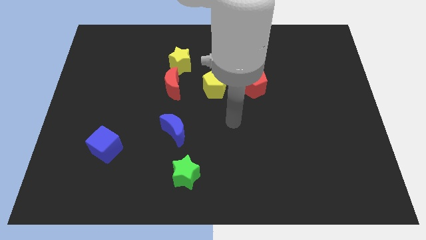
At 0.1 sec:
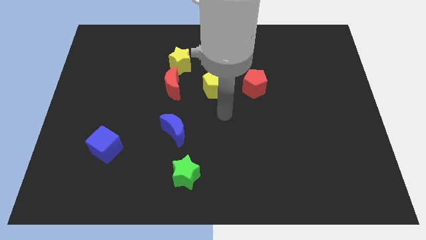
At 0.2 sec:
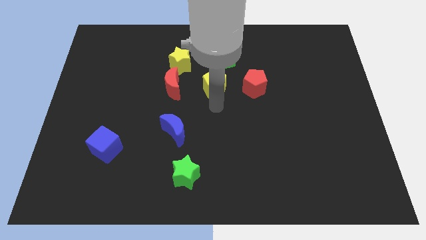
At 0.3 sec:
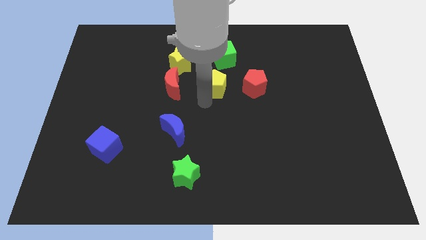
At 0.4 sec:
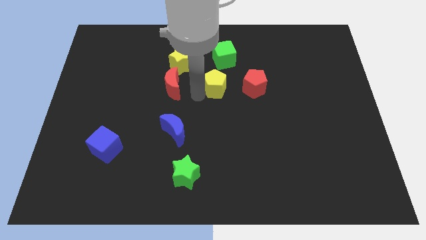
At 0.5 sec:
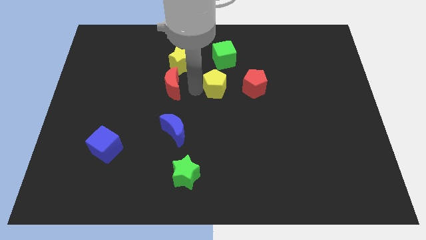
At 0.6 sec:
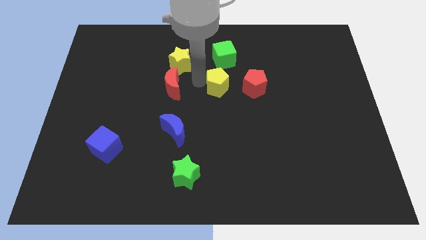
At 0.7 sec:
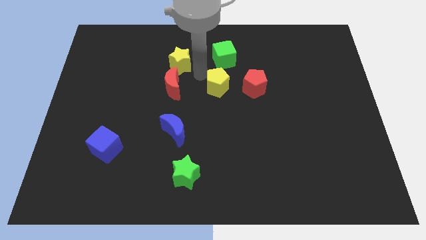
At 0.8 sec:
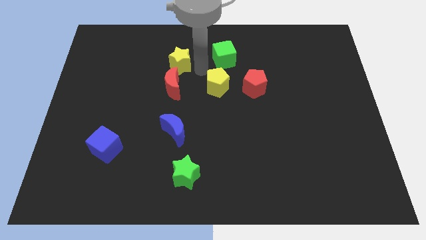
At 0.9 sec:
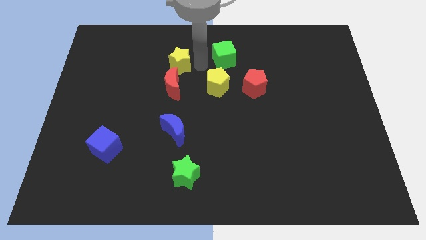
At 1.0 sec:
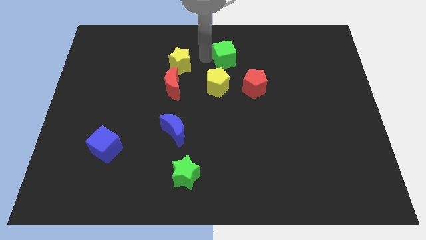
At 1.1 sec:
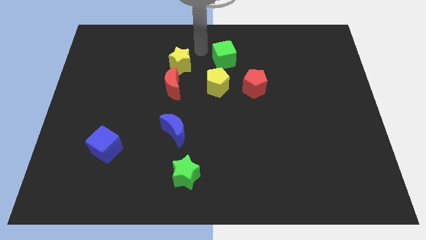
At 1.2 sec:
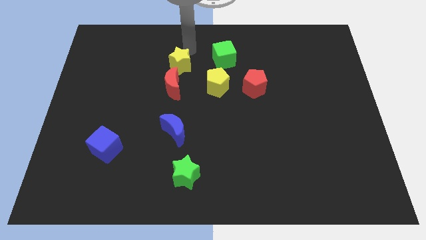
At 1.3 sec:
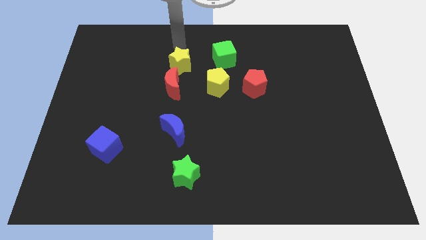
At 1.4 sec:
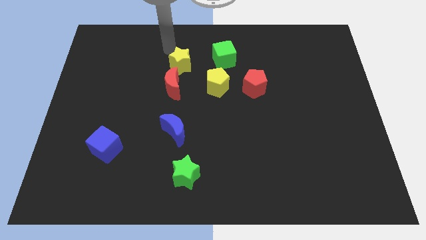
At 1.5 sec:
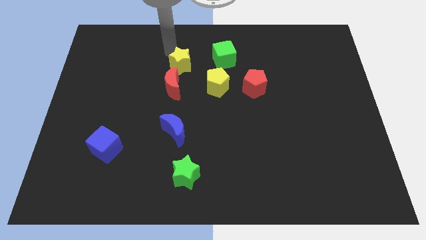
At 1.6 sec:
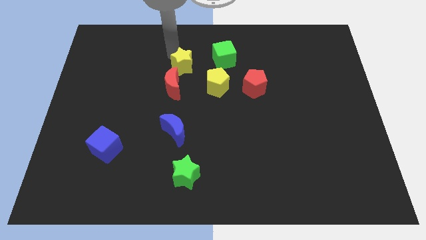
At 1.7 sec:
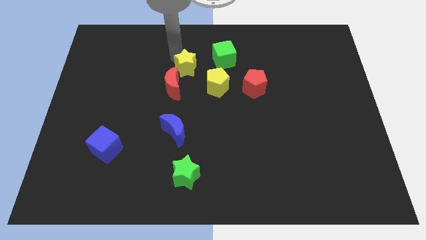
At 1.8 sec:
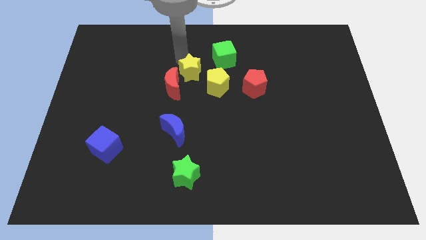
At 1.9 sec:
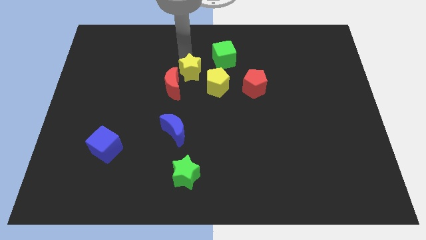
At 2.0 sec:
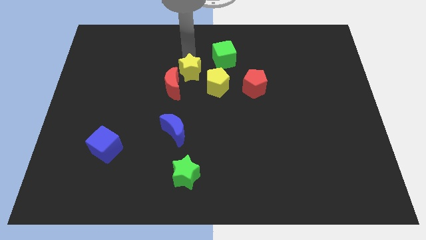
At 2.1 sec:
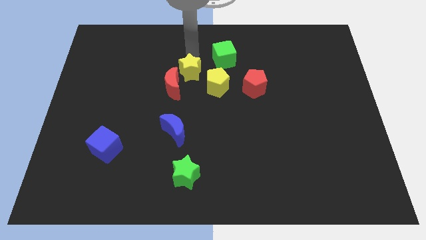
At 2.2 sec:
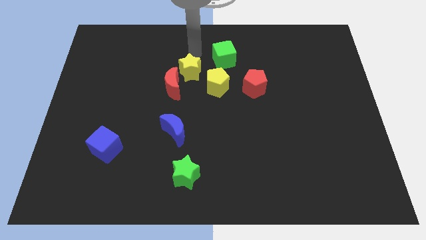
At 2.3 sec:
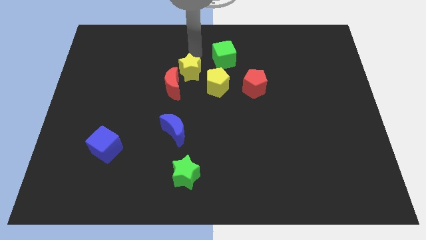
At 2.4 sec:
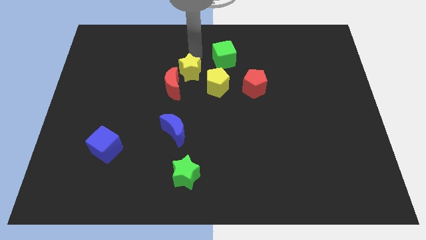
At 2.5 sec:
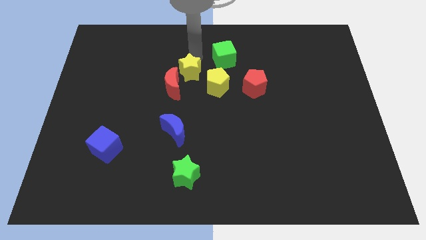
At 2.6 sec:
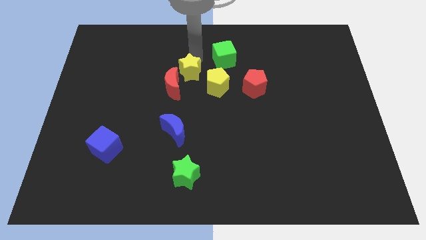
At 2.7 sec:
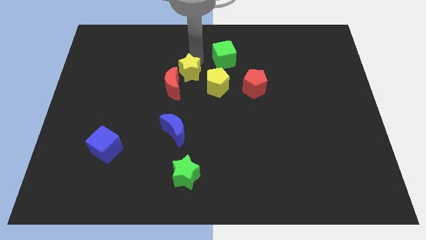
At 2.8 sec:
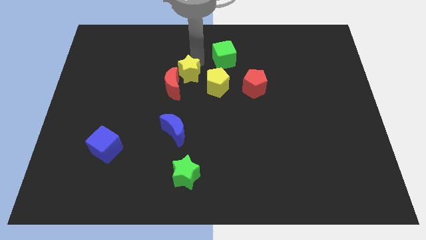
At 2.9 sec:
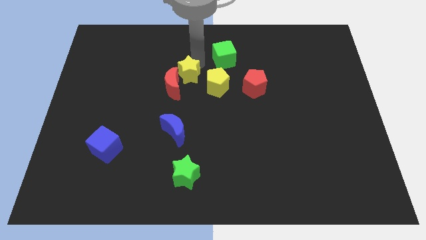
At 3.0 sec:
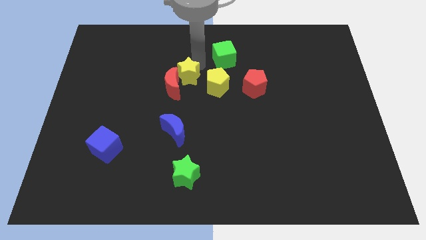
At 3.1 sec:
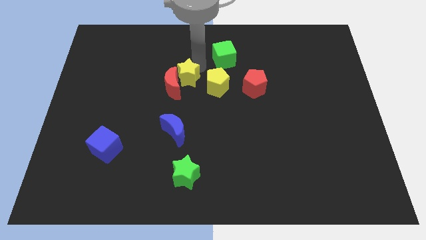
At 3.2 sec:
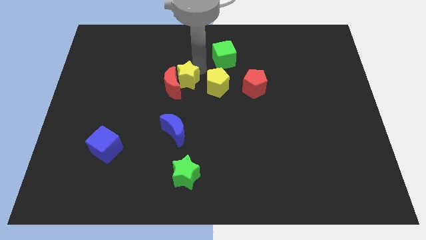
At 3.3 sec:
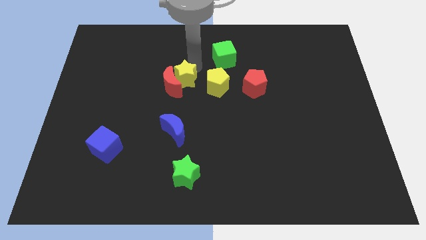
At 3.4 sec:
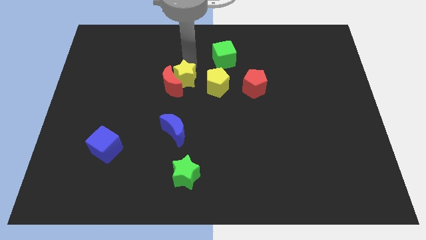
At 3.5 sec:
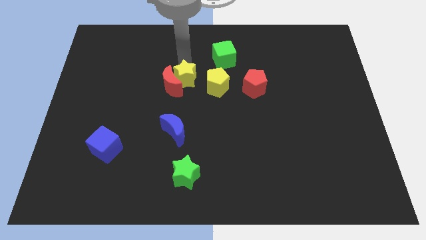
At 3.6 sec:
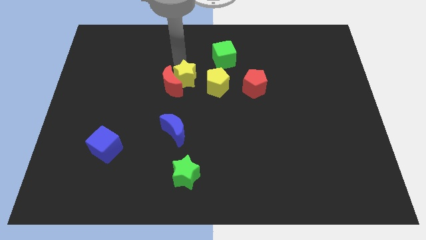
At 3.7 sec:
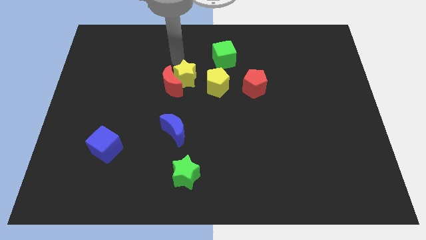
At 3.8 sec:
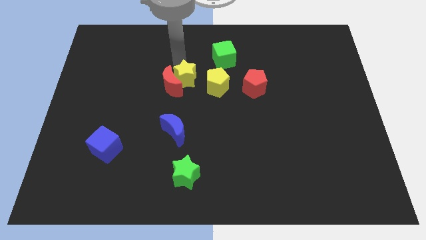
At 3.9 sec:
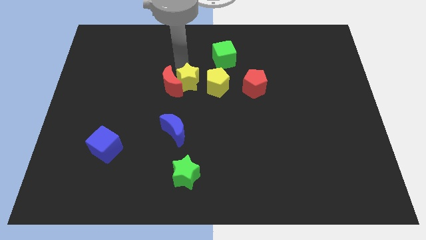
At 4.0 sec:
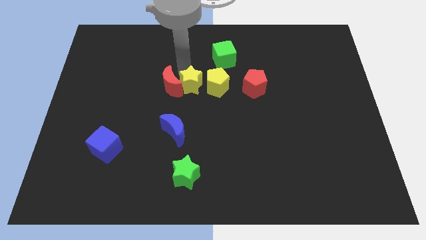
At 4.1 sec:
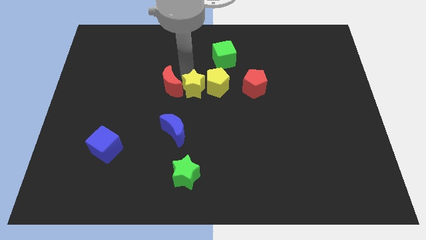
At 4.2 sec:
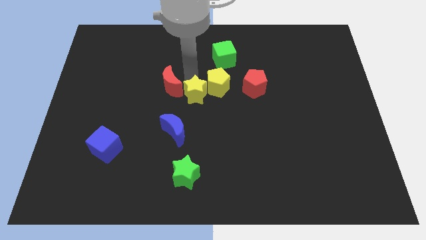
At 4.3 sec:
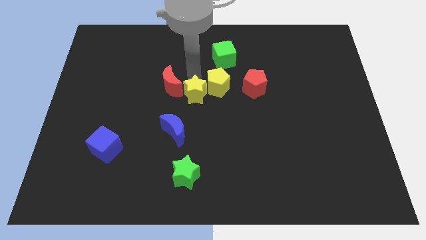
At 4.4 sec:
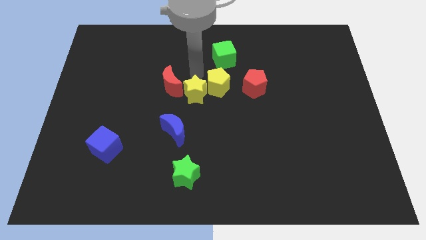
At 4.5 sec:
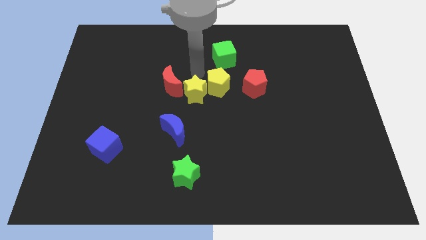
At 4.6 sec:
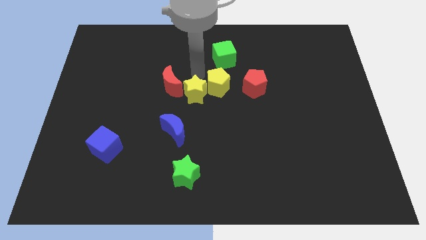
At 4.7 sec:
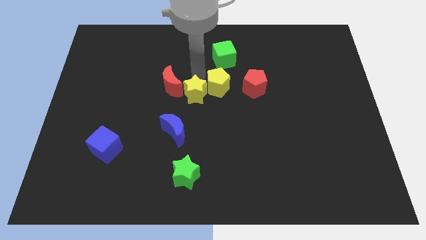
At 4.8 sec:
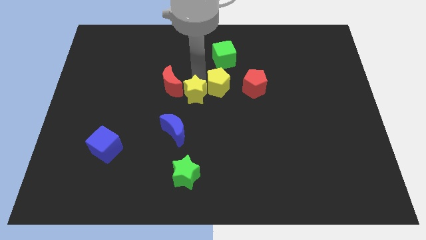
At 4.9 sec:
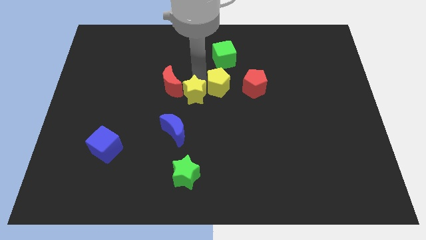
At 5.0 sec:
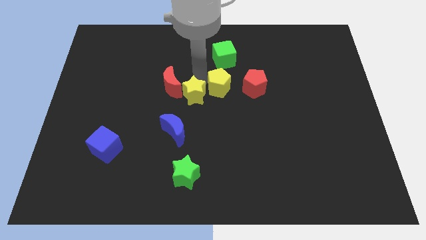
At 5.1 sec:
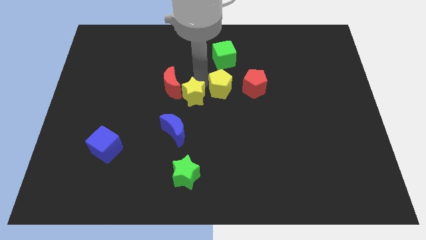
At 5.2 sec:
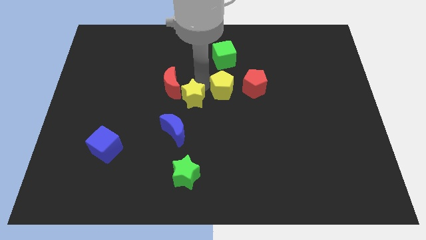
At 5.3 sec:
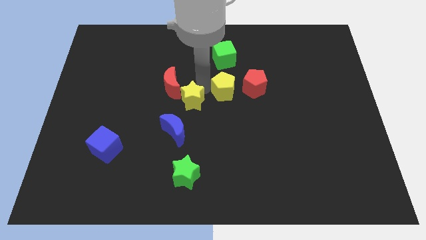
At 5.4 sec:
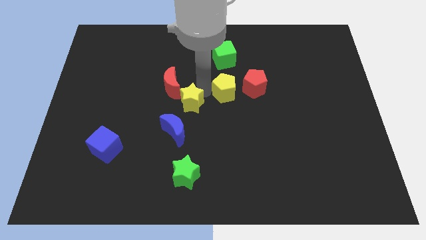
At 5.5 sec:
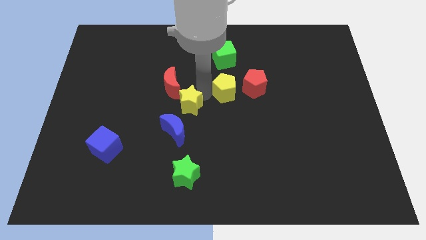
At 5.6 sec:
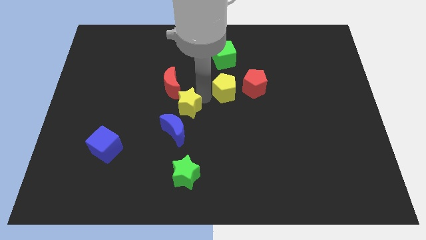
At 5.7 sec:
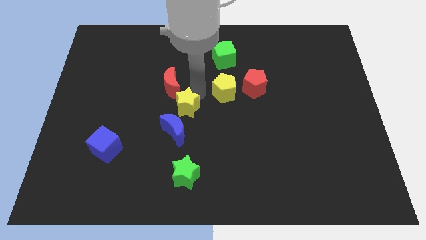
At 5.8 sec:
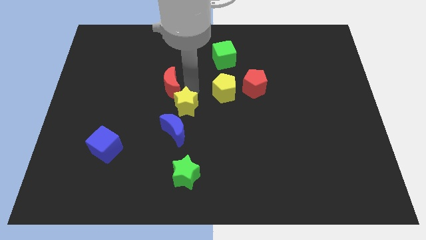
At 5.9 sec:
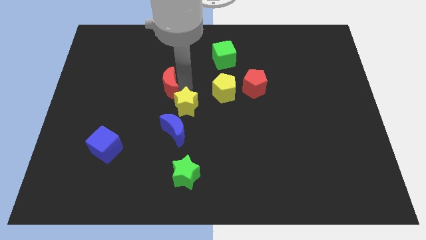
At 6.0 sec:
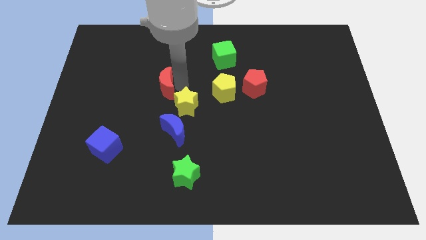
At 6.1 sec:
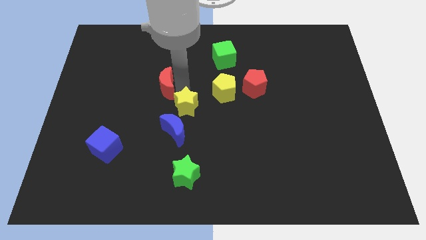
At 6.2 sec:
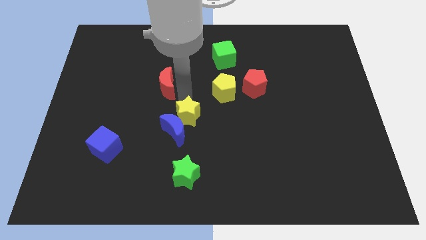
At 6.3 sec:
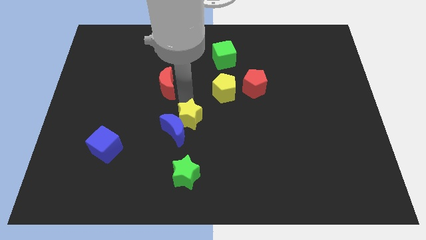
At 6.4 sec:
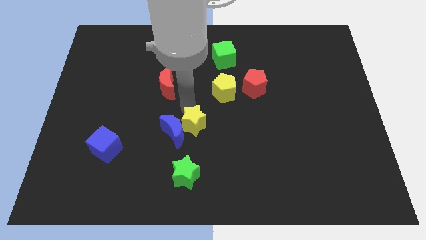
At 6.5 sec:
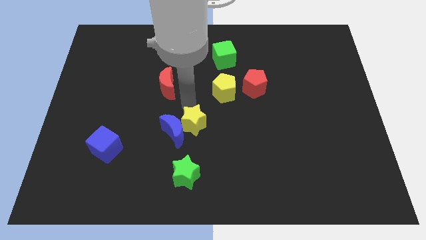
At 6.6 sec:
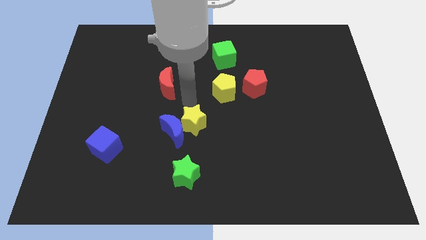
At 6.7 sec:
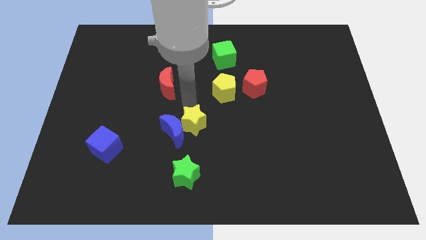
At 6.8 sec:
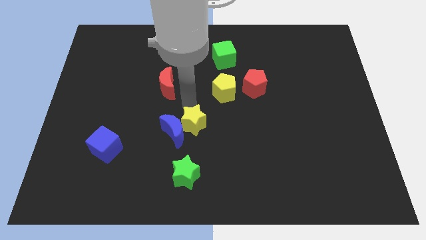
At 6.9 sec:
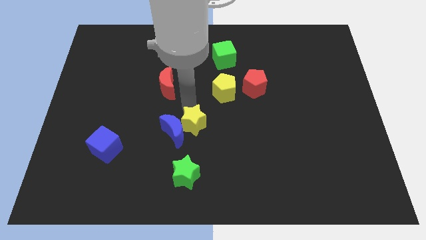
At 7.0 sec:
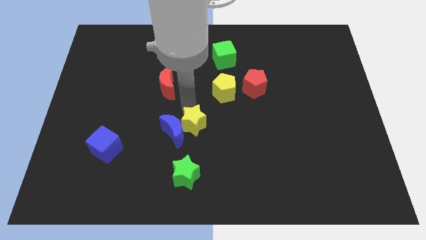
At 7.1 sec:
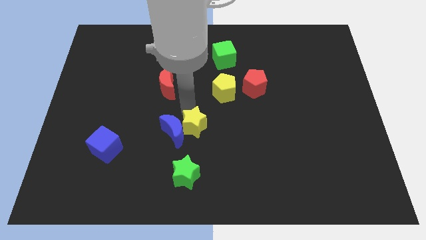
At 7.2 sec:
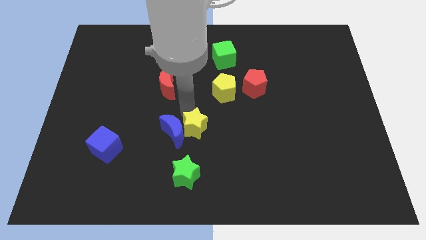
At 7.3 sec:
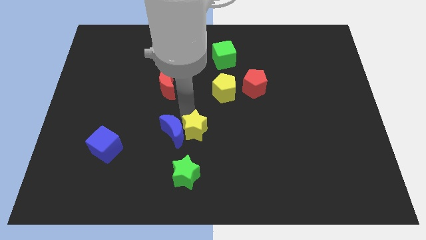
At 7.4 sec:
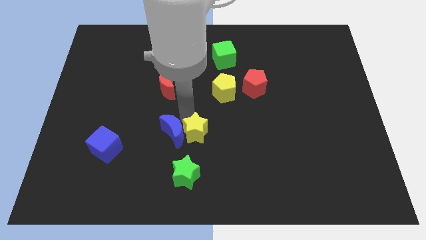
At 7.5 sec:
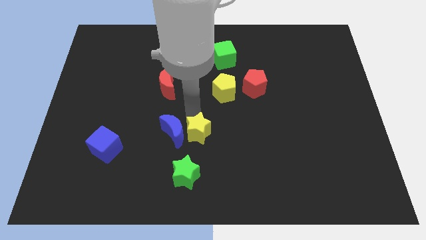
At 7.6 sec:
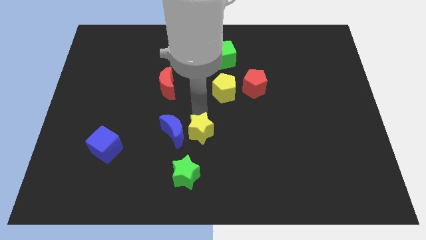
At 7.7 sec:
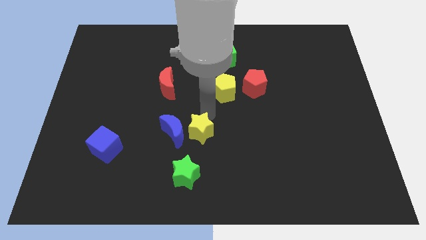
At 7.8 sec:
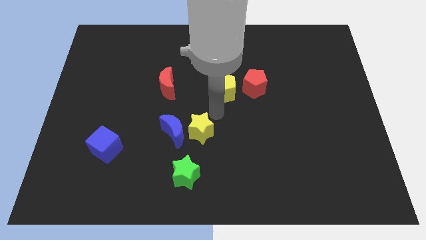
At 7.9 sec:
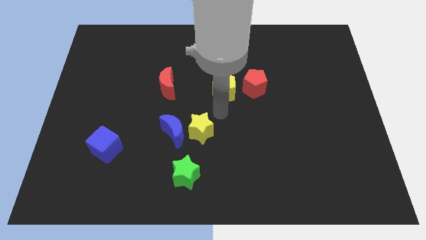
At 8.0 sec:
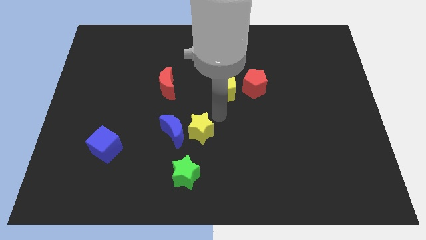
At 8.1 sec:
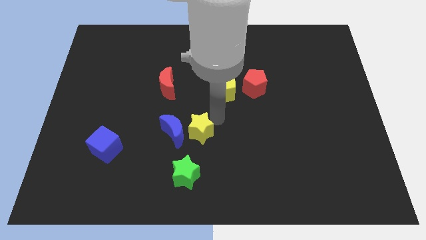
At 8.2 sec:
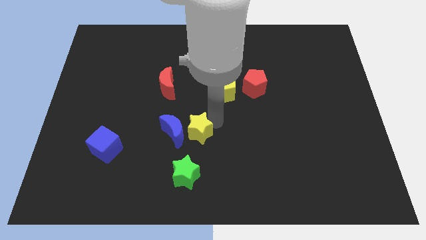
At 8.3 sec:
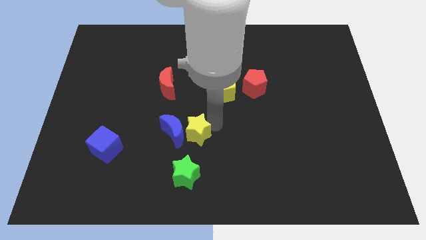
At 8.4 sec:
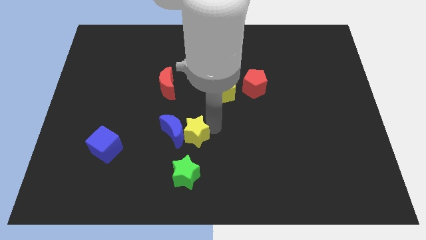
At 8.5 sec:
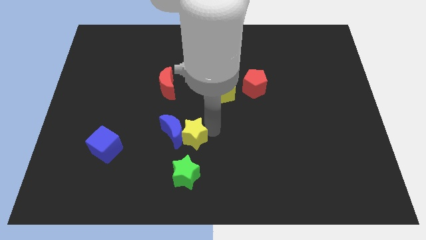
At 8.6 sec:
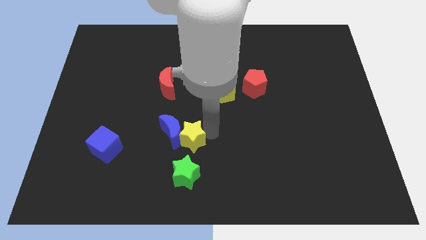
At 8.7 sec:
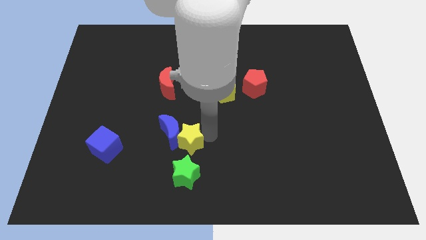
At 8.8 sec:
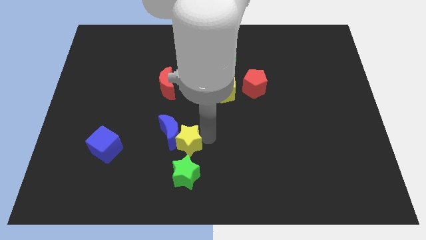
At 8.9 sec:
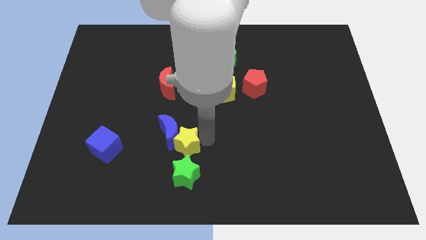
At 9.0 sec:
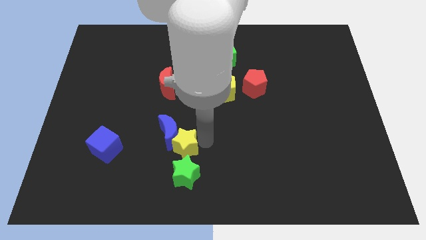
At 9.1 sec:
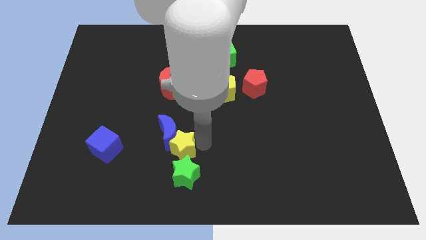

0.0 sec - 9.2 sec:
slide the yellow star to the green star
